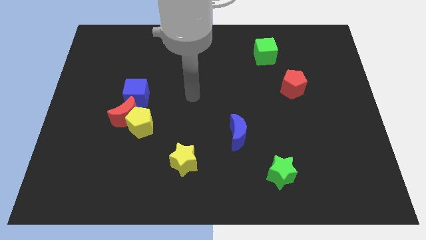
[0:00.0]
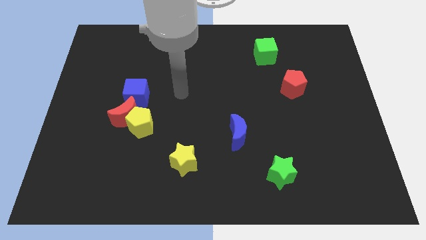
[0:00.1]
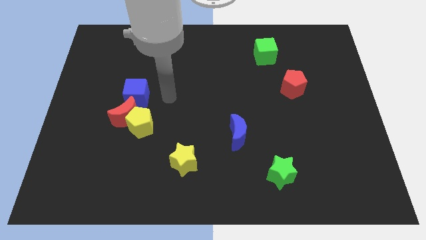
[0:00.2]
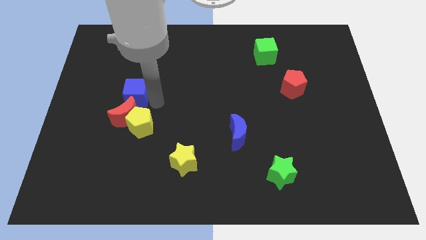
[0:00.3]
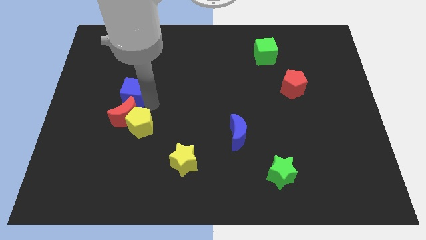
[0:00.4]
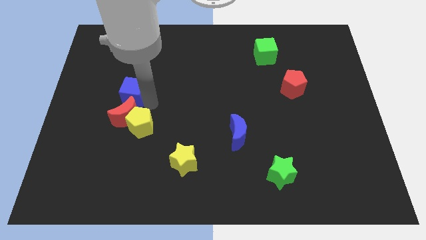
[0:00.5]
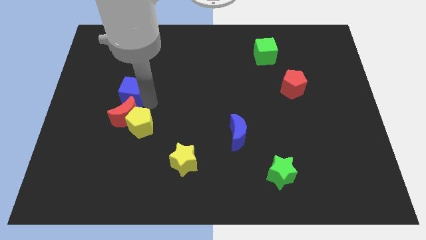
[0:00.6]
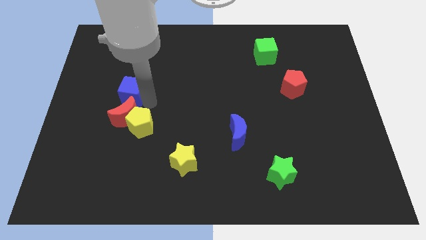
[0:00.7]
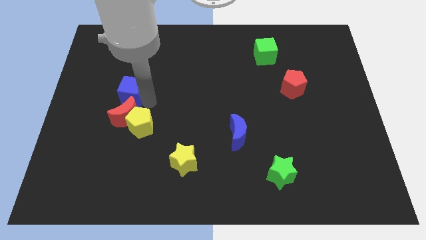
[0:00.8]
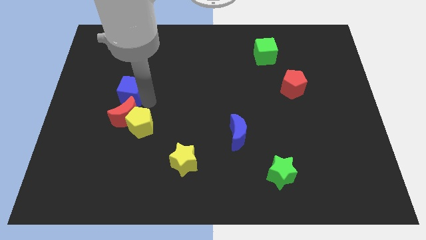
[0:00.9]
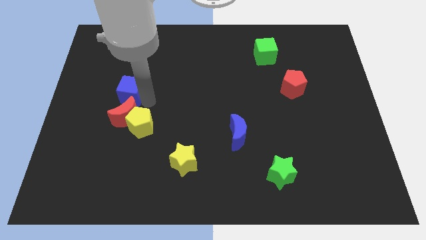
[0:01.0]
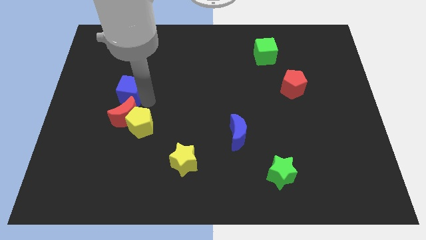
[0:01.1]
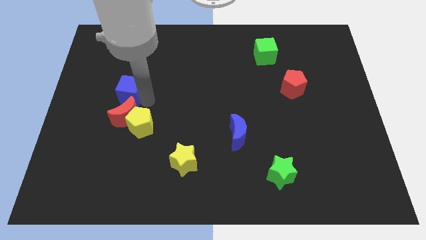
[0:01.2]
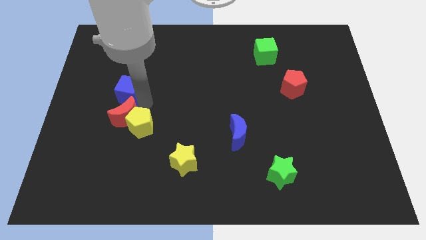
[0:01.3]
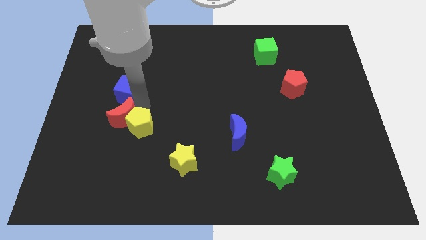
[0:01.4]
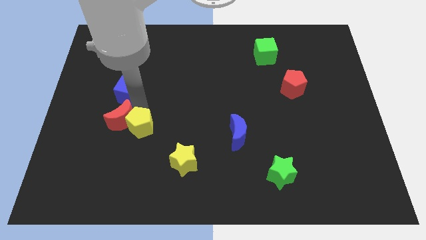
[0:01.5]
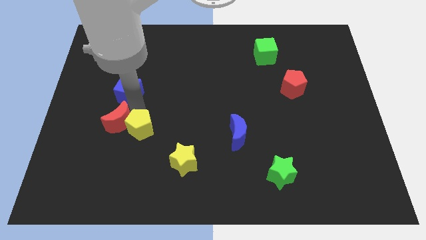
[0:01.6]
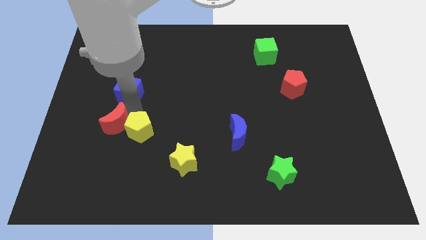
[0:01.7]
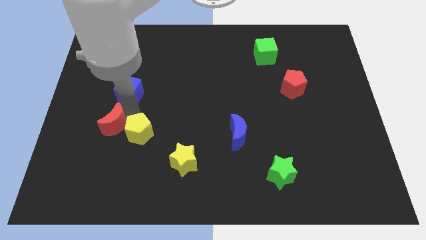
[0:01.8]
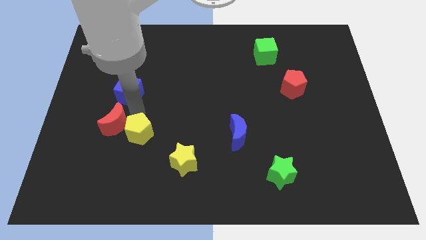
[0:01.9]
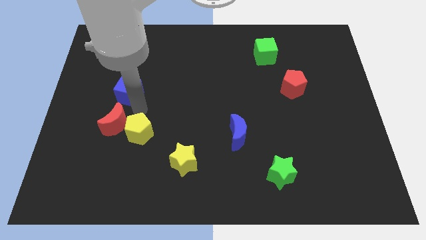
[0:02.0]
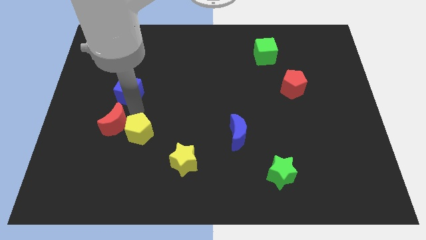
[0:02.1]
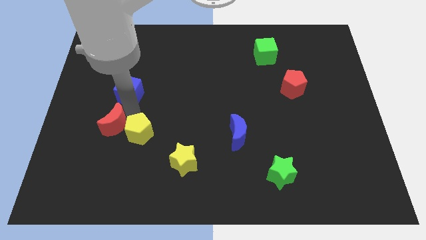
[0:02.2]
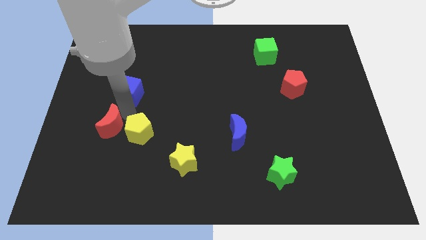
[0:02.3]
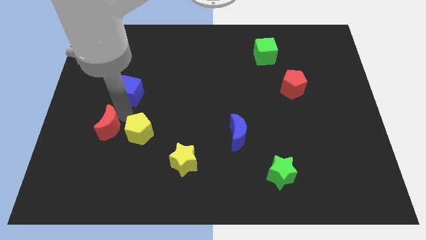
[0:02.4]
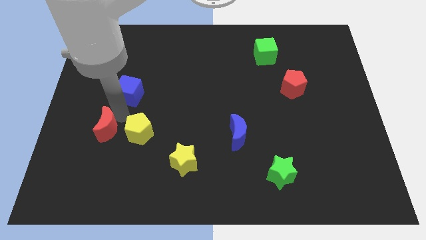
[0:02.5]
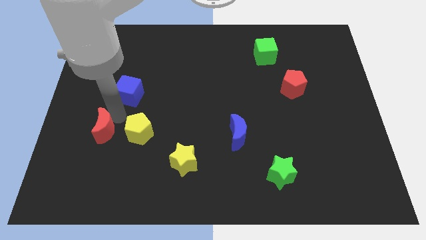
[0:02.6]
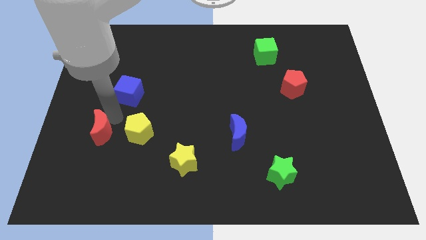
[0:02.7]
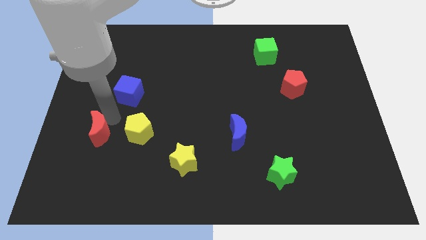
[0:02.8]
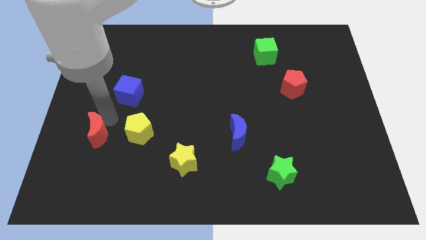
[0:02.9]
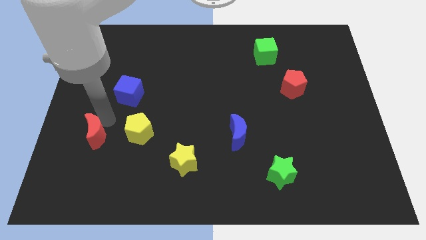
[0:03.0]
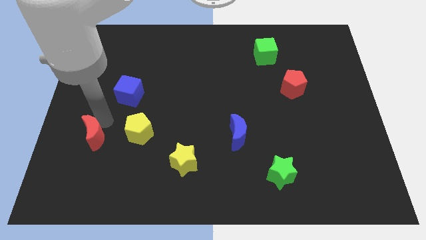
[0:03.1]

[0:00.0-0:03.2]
separate the red moon from the yellow pentagon and blue cube

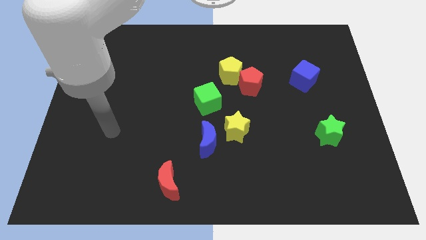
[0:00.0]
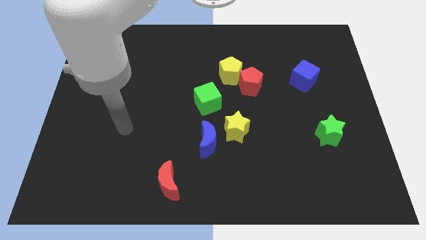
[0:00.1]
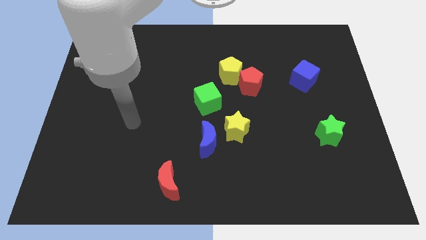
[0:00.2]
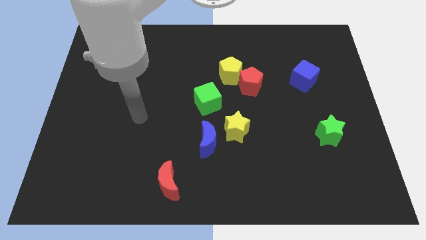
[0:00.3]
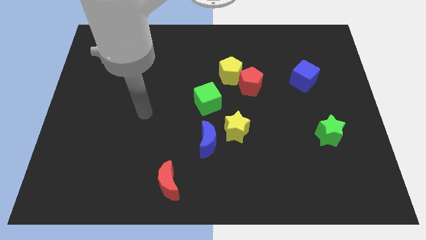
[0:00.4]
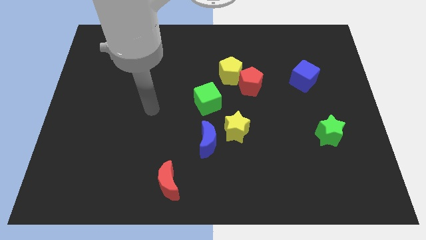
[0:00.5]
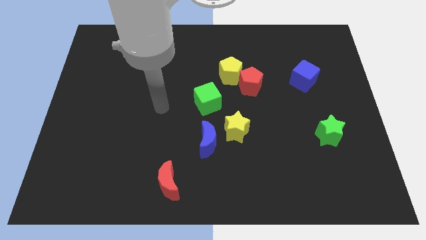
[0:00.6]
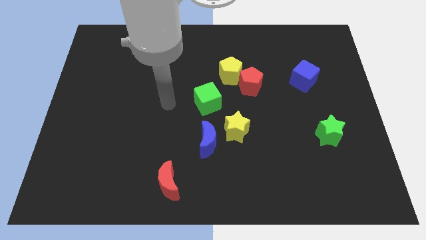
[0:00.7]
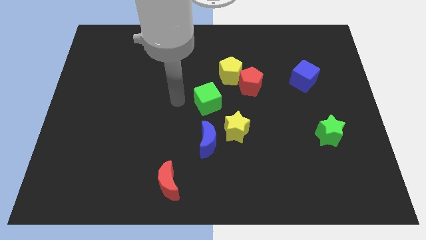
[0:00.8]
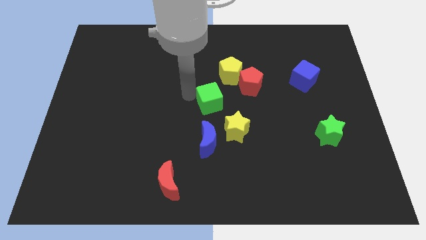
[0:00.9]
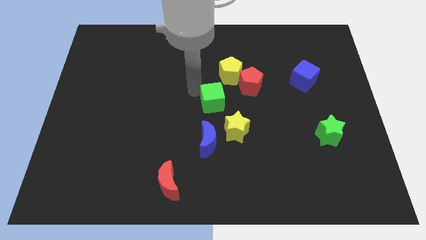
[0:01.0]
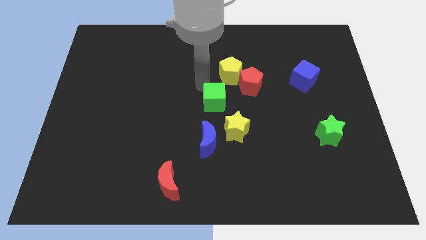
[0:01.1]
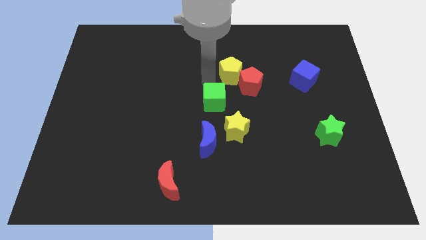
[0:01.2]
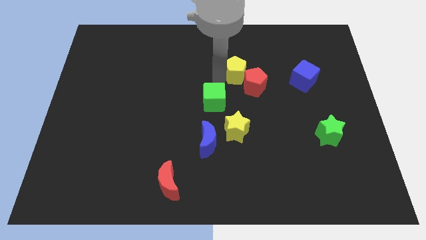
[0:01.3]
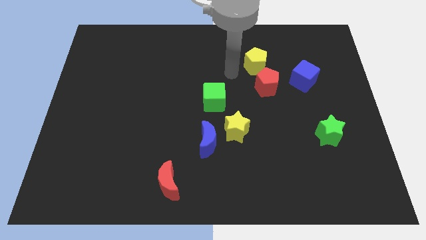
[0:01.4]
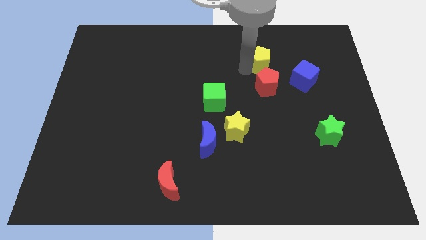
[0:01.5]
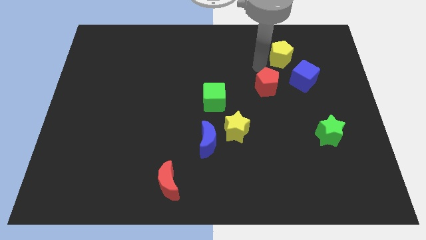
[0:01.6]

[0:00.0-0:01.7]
pull the red pentagon apart from the yellow pentagon

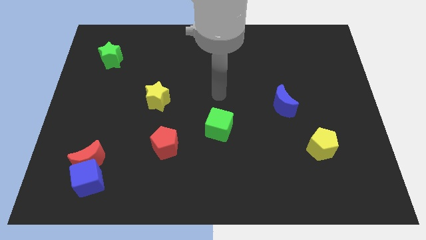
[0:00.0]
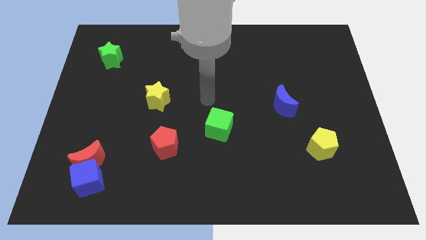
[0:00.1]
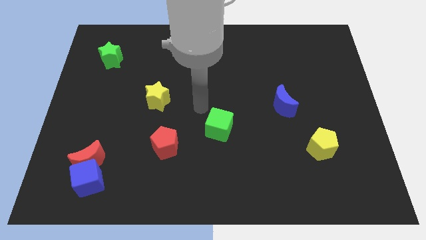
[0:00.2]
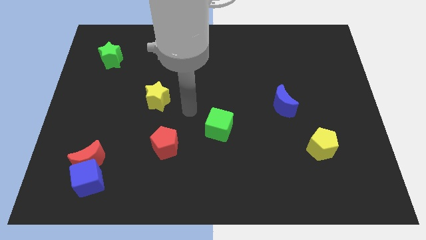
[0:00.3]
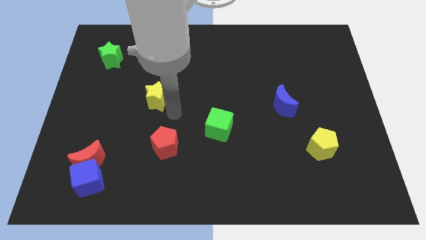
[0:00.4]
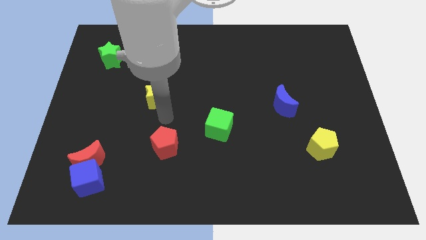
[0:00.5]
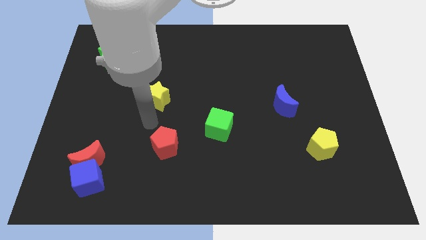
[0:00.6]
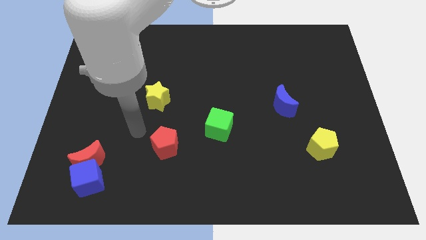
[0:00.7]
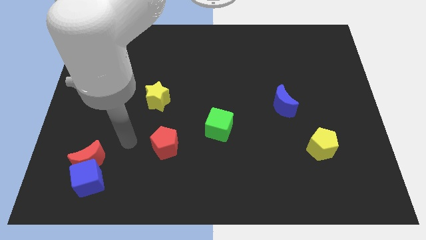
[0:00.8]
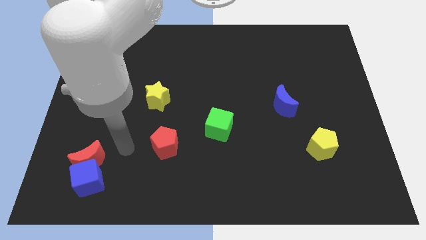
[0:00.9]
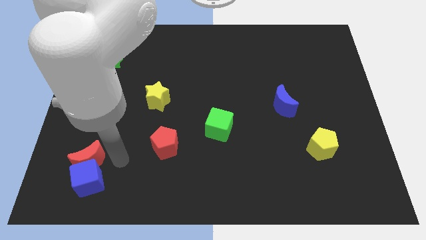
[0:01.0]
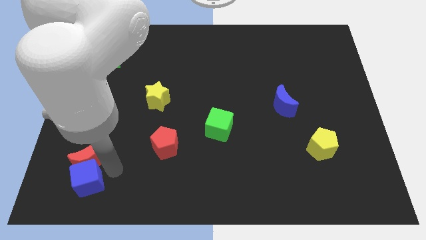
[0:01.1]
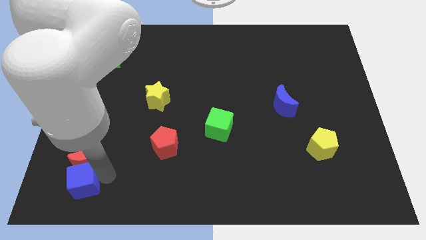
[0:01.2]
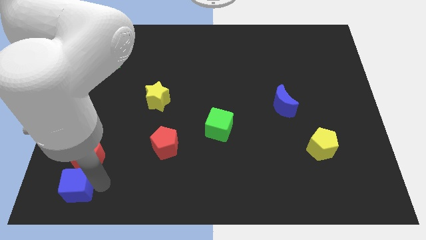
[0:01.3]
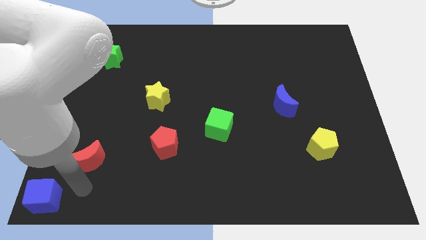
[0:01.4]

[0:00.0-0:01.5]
pull the red moon apart from the blue cube

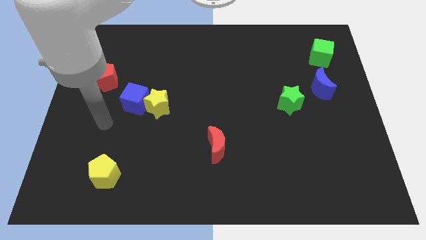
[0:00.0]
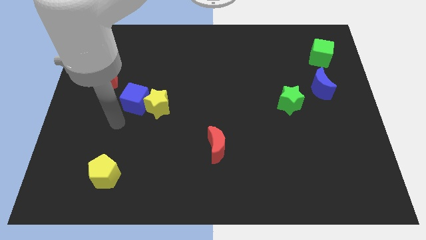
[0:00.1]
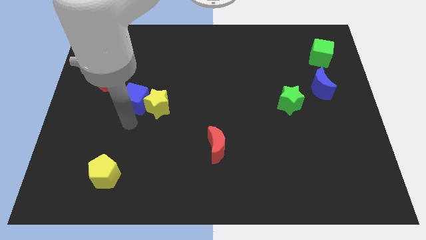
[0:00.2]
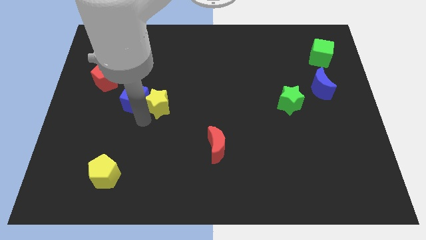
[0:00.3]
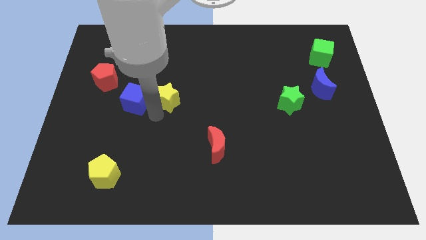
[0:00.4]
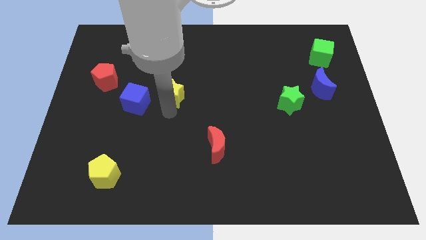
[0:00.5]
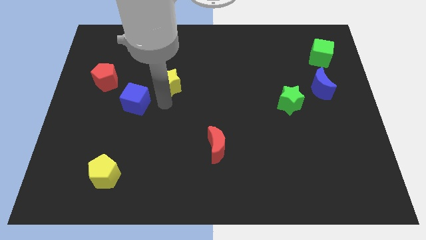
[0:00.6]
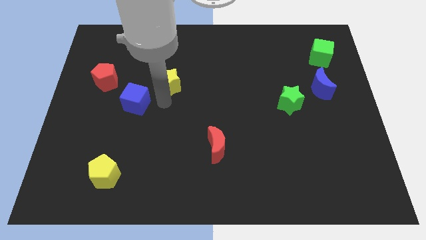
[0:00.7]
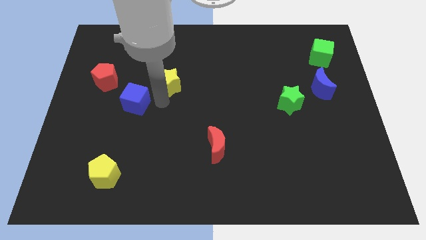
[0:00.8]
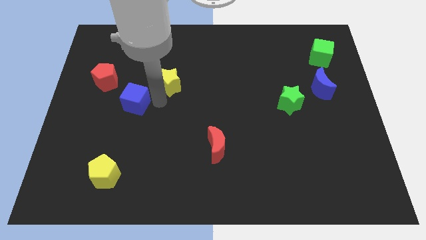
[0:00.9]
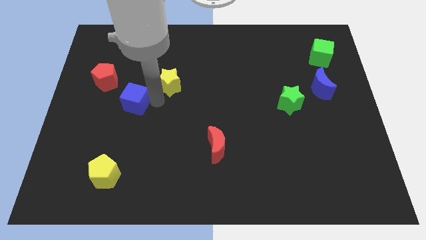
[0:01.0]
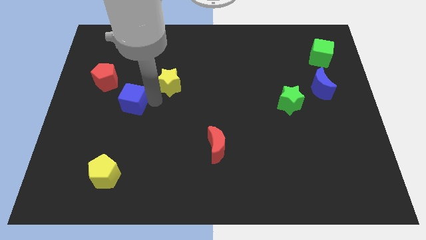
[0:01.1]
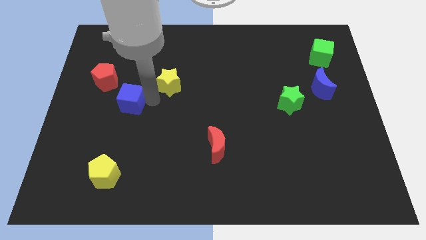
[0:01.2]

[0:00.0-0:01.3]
pull the blue cube apart from the yellow star

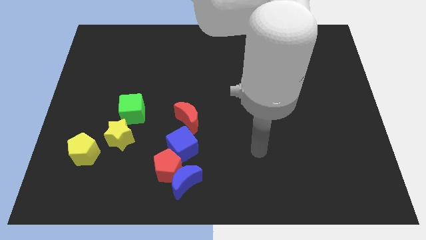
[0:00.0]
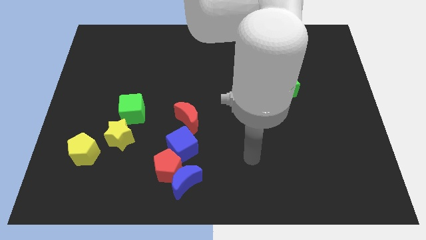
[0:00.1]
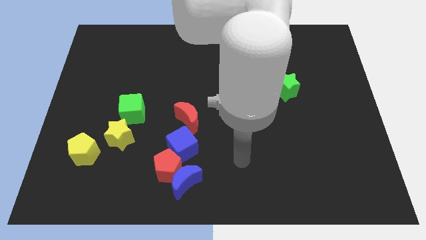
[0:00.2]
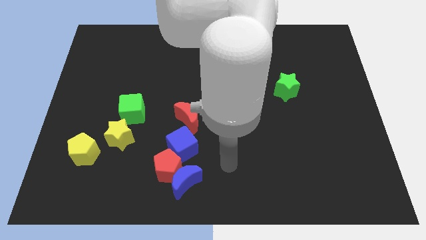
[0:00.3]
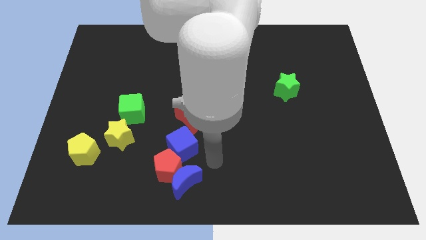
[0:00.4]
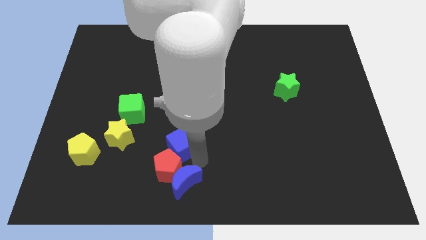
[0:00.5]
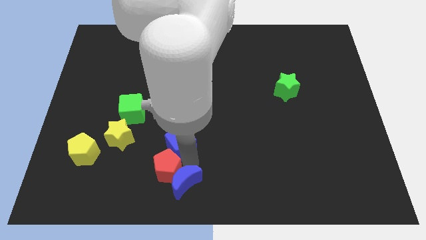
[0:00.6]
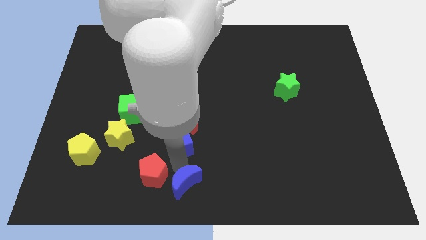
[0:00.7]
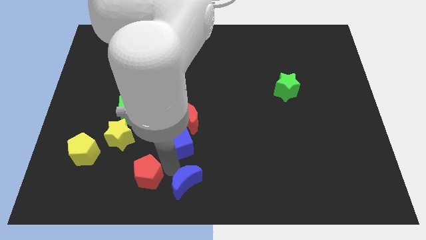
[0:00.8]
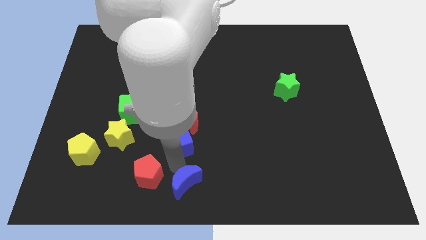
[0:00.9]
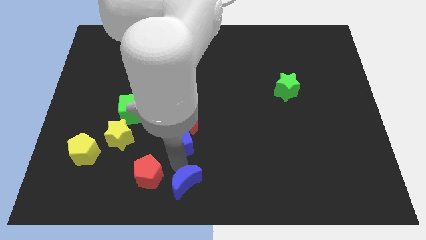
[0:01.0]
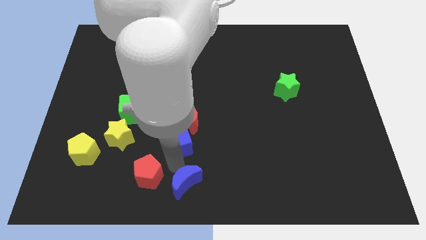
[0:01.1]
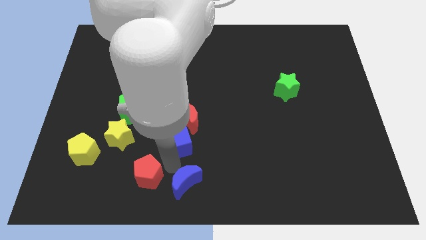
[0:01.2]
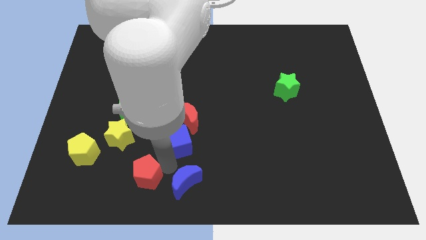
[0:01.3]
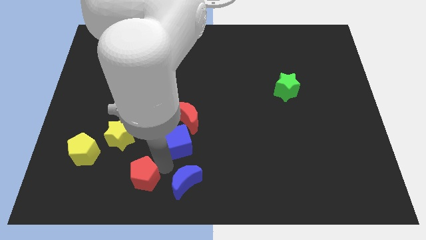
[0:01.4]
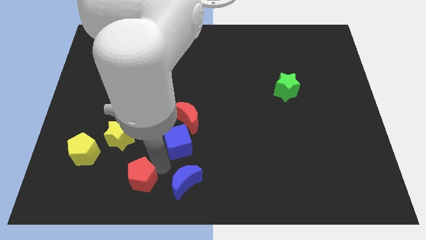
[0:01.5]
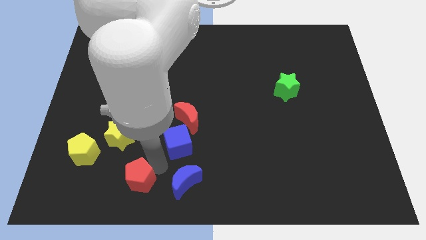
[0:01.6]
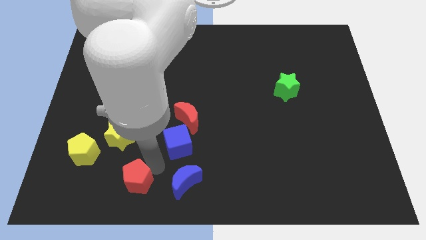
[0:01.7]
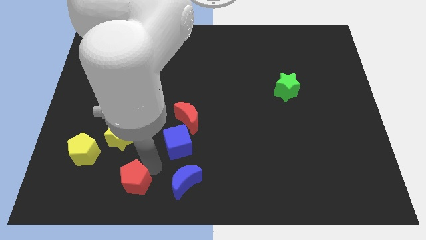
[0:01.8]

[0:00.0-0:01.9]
move the red pentagon away from the blue moon and blue cube
